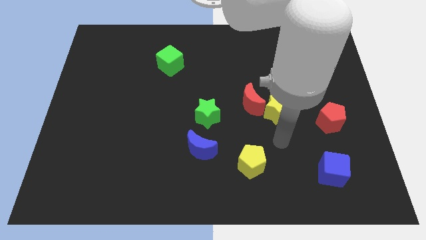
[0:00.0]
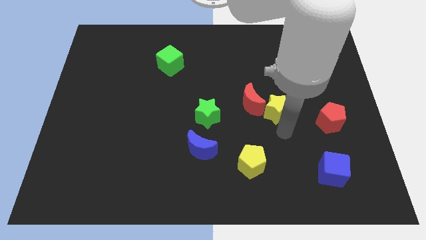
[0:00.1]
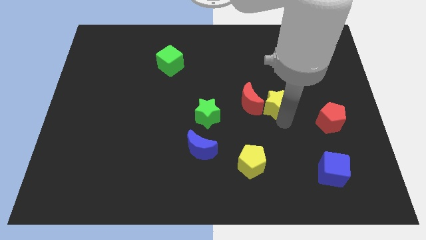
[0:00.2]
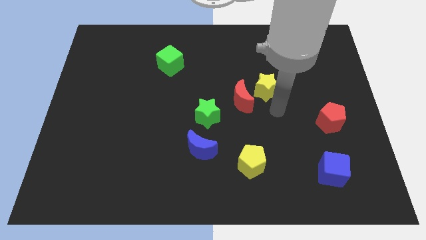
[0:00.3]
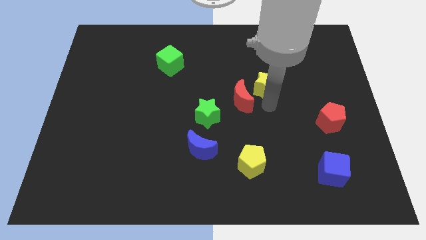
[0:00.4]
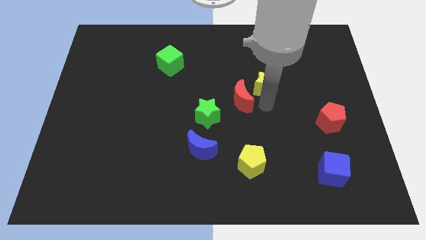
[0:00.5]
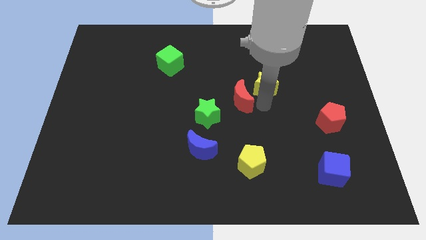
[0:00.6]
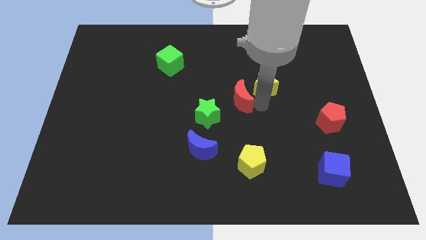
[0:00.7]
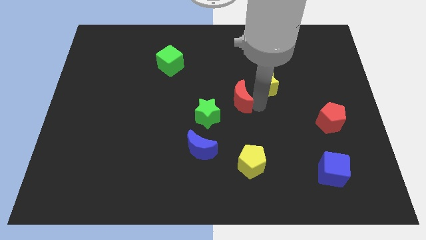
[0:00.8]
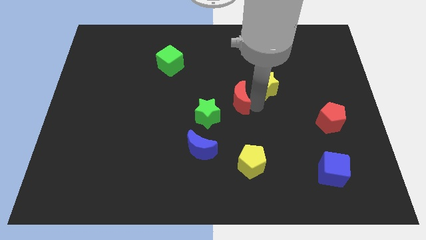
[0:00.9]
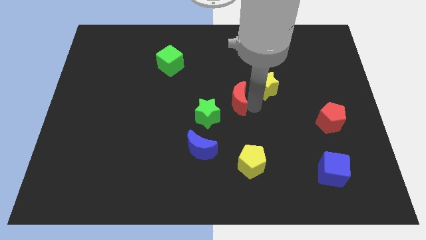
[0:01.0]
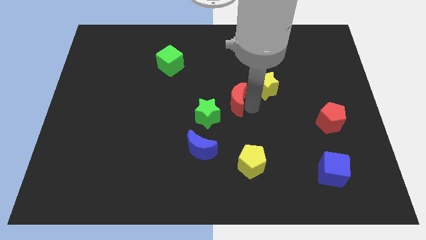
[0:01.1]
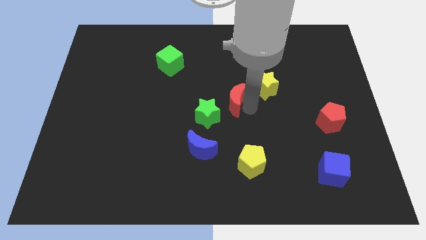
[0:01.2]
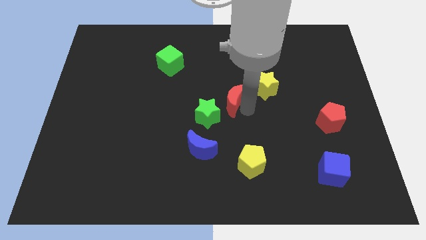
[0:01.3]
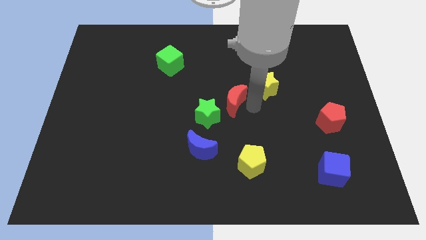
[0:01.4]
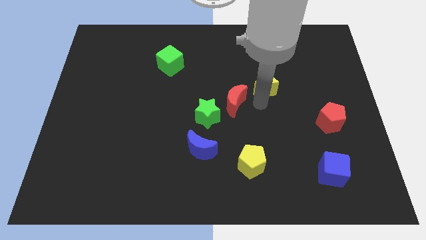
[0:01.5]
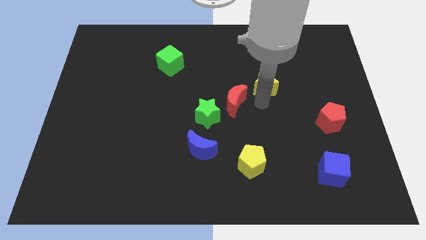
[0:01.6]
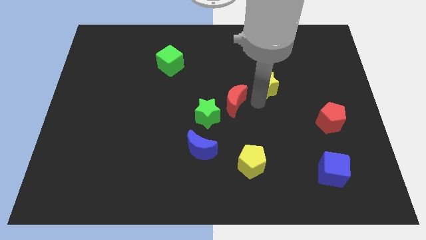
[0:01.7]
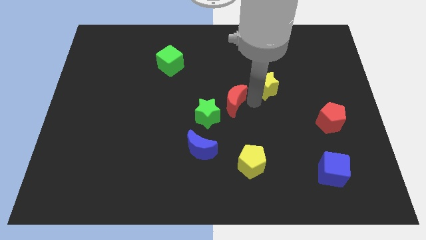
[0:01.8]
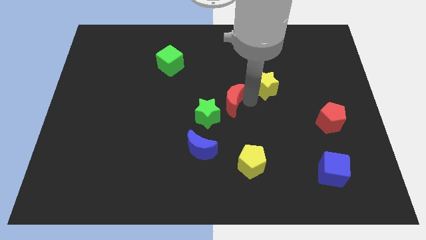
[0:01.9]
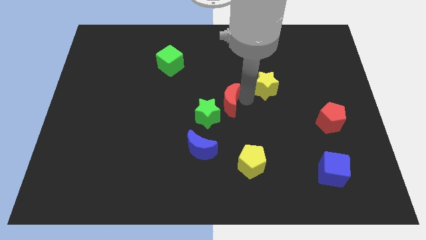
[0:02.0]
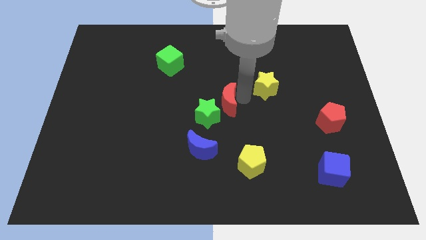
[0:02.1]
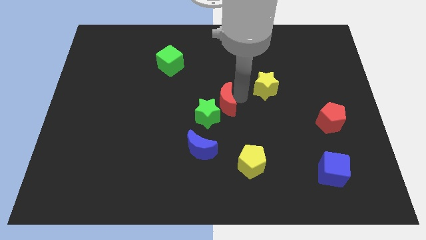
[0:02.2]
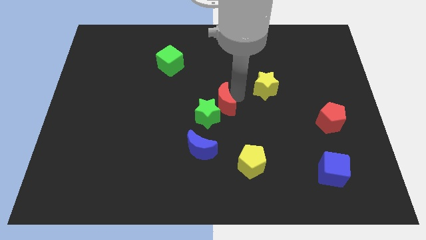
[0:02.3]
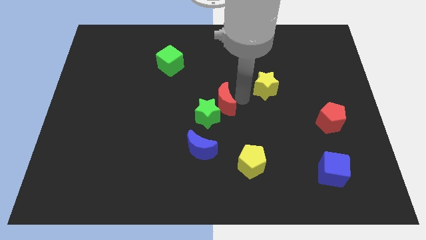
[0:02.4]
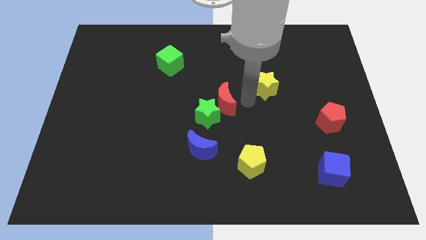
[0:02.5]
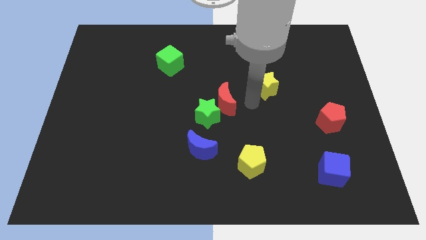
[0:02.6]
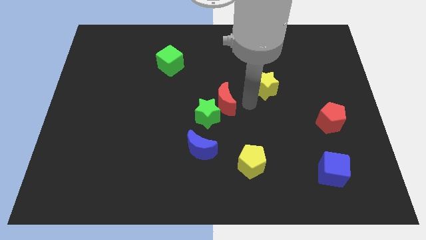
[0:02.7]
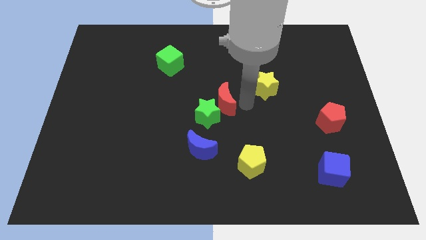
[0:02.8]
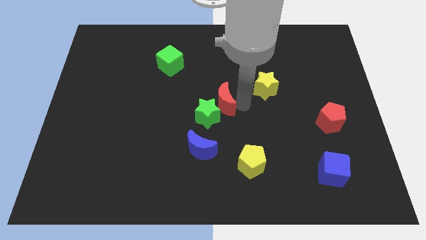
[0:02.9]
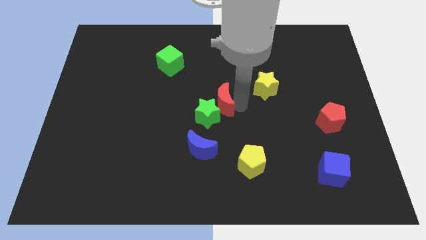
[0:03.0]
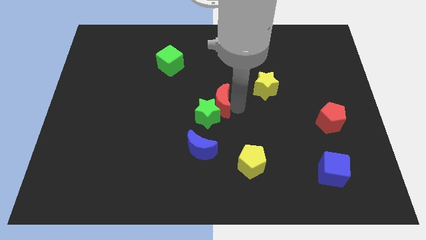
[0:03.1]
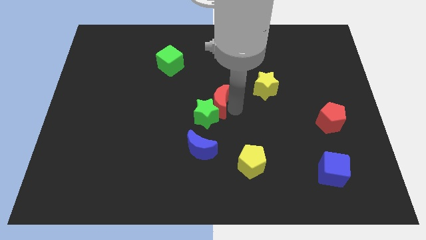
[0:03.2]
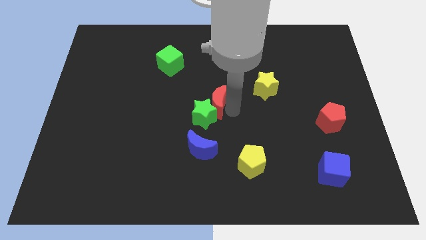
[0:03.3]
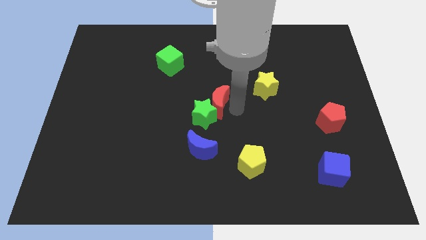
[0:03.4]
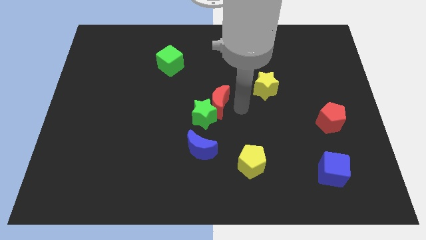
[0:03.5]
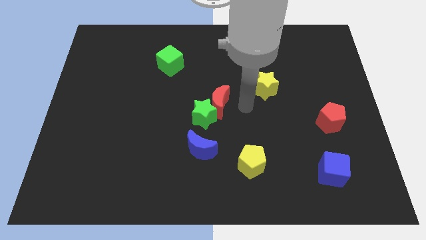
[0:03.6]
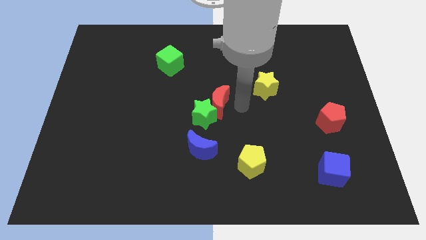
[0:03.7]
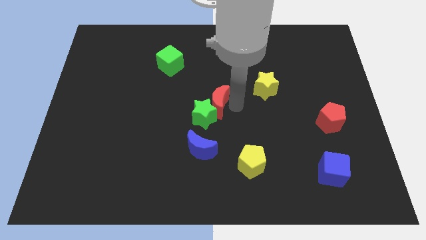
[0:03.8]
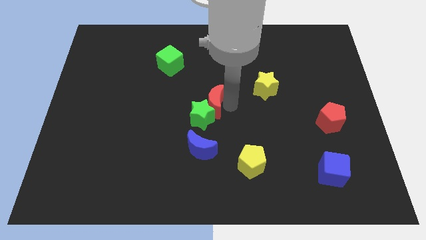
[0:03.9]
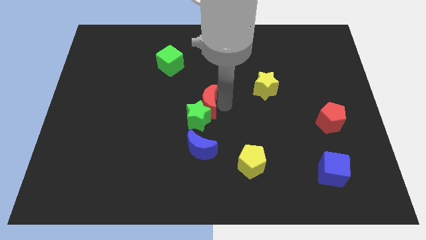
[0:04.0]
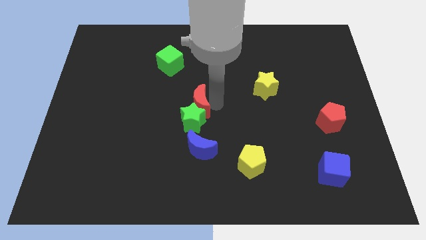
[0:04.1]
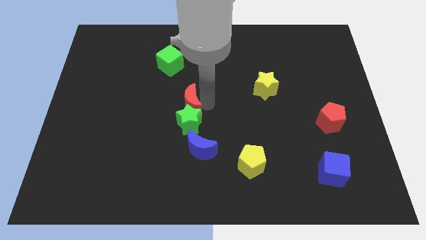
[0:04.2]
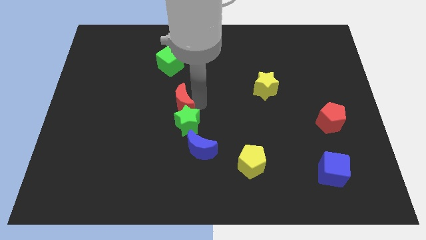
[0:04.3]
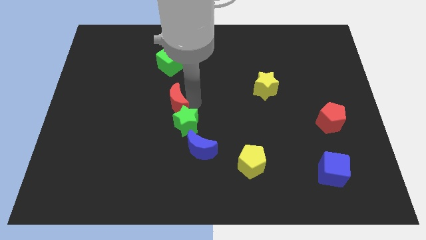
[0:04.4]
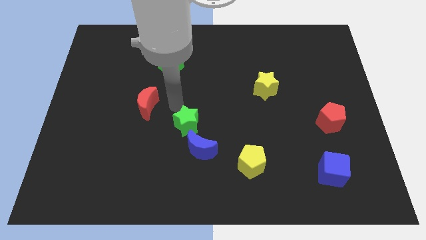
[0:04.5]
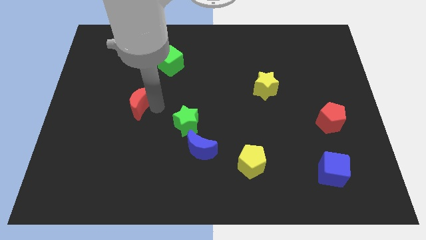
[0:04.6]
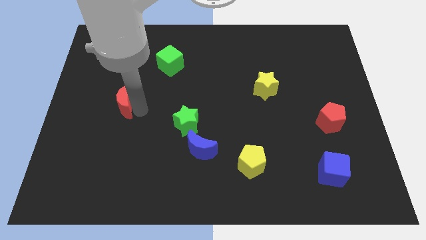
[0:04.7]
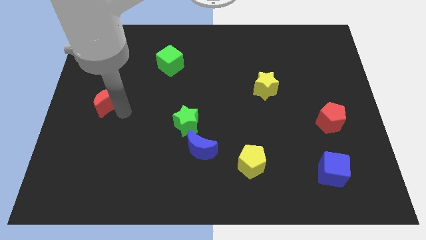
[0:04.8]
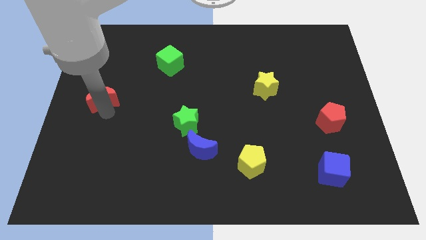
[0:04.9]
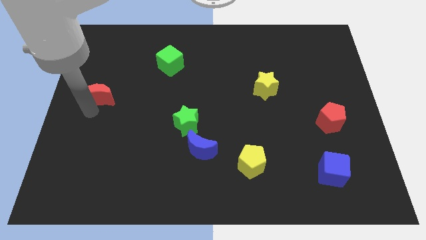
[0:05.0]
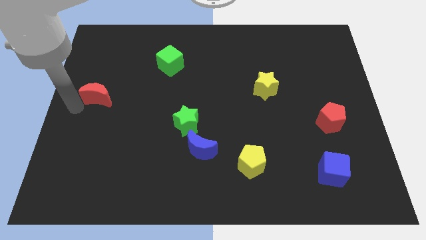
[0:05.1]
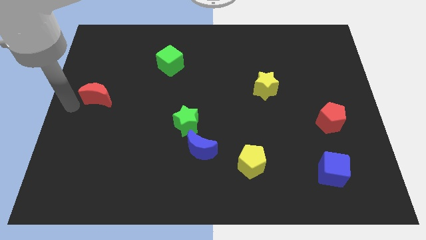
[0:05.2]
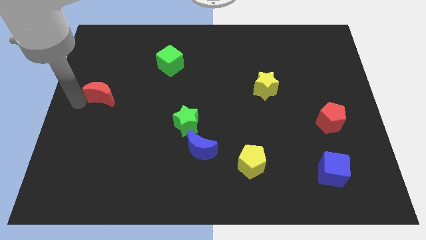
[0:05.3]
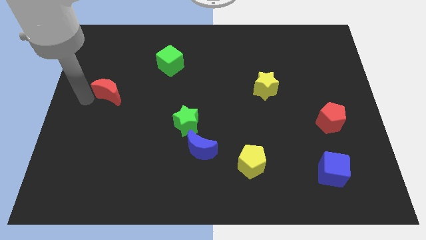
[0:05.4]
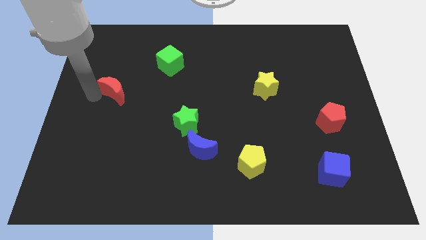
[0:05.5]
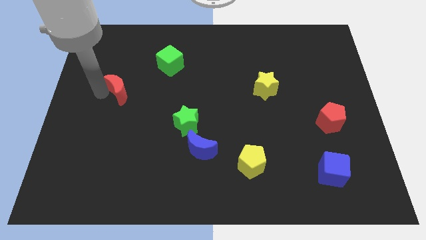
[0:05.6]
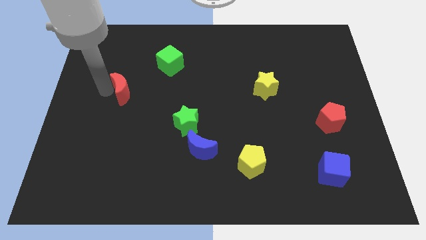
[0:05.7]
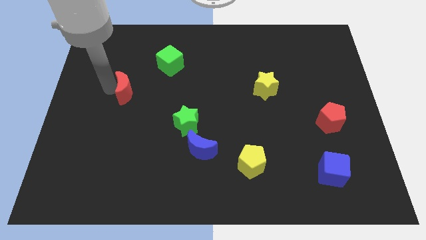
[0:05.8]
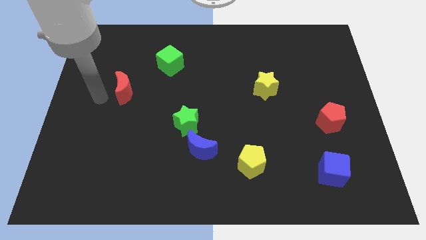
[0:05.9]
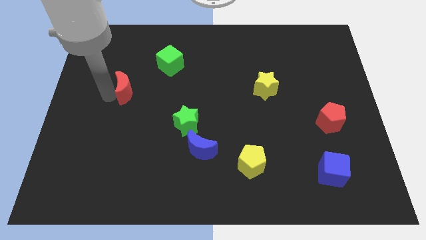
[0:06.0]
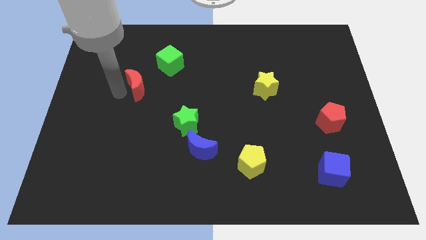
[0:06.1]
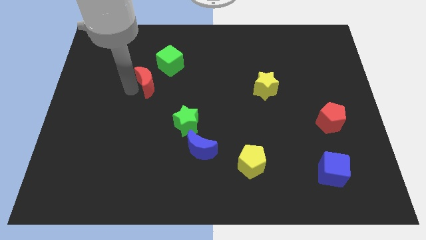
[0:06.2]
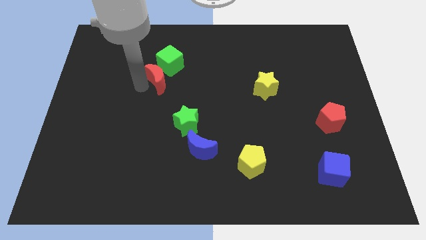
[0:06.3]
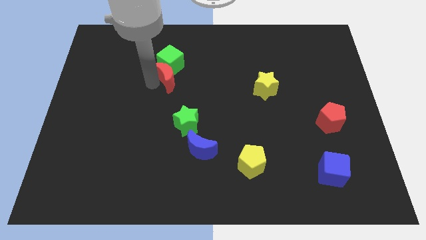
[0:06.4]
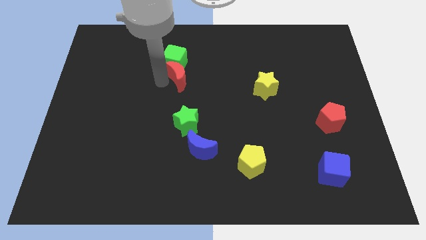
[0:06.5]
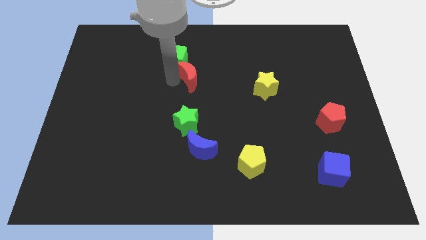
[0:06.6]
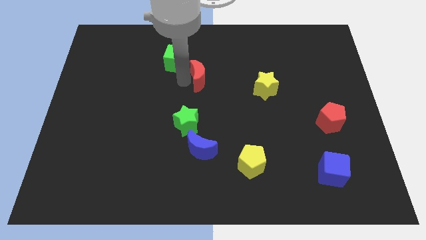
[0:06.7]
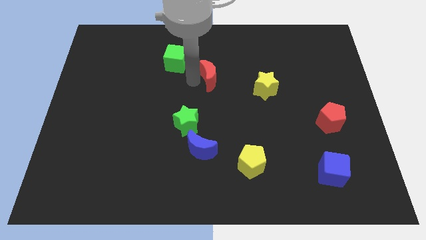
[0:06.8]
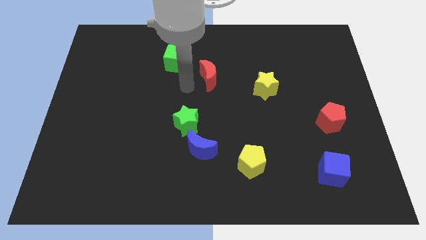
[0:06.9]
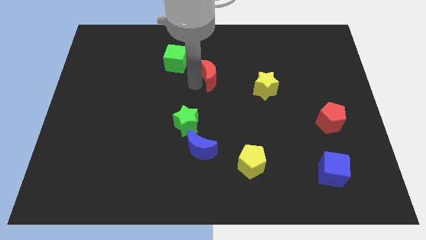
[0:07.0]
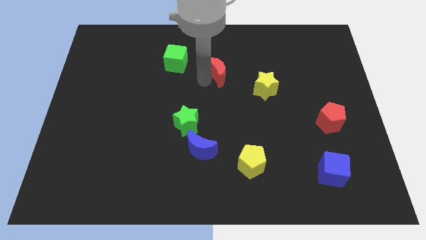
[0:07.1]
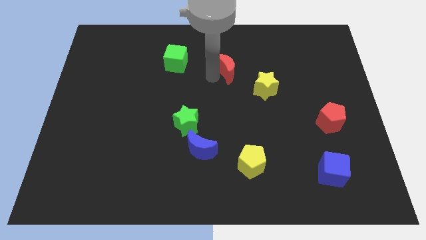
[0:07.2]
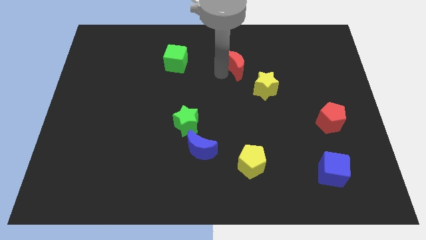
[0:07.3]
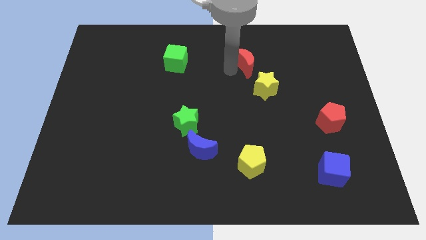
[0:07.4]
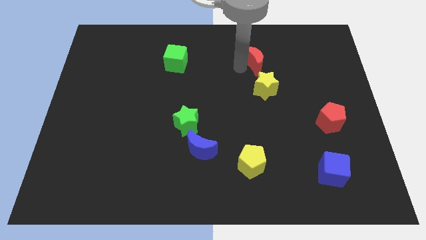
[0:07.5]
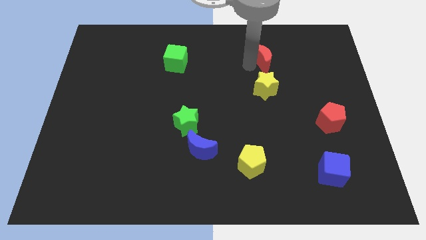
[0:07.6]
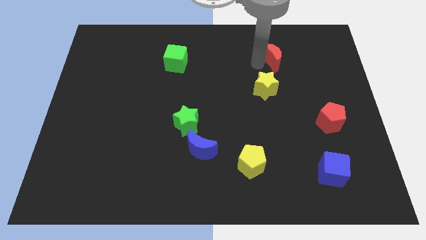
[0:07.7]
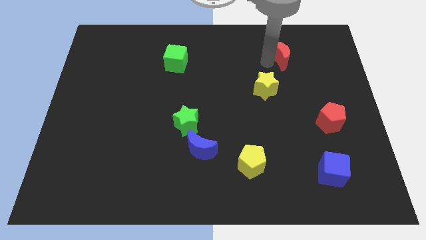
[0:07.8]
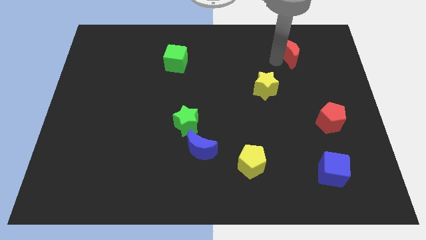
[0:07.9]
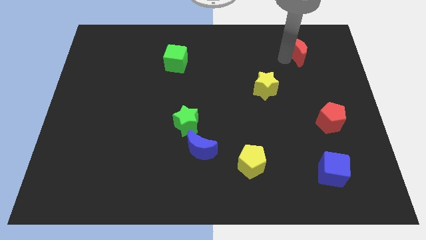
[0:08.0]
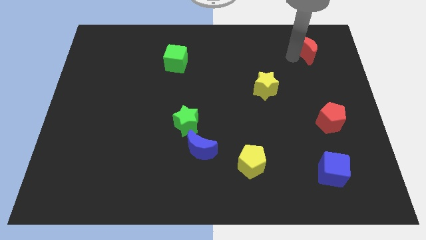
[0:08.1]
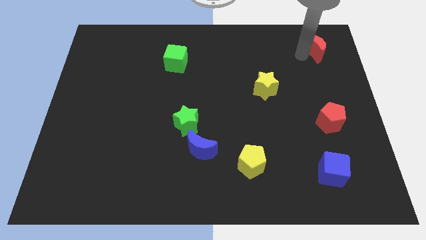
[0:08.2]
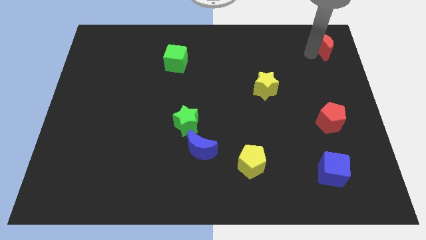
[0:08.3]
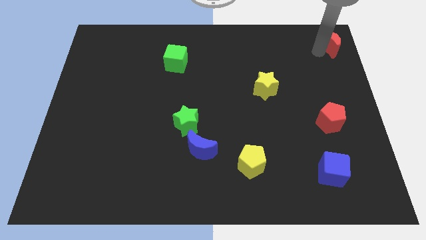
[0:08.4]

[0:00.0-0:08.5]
slide the red moon to the upper right corner

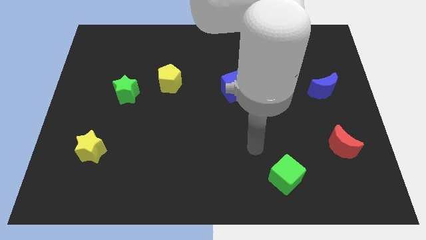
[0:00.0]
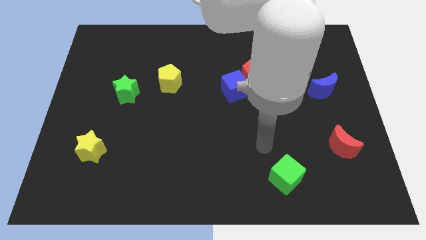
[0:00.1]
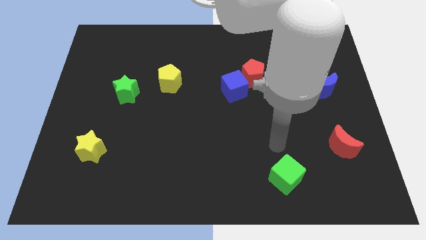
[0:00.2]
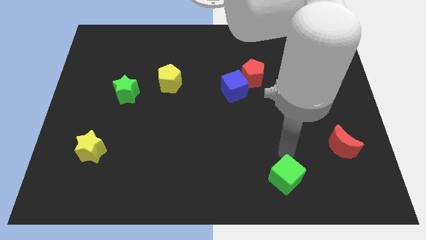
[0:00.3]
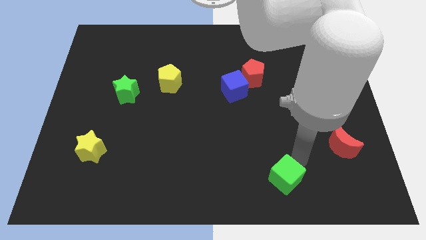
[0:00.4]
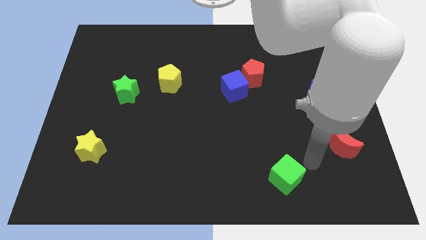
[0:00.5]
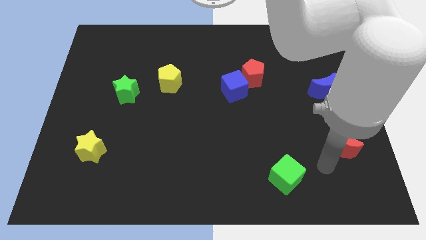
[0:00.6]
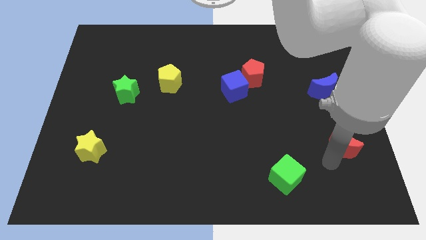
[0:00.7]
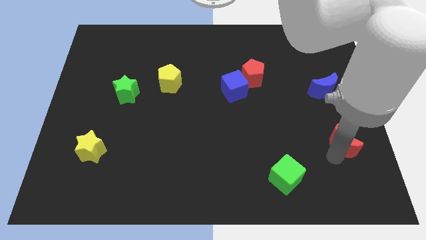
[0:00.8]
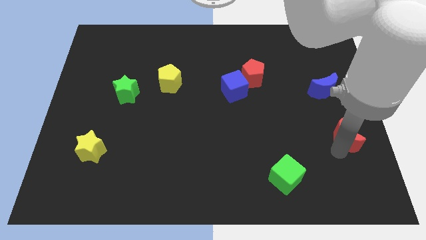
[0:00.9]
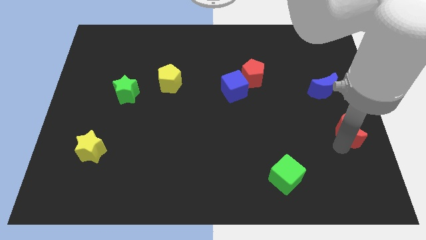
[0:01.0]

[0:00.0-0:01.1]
put the red moon to the right side
